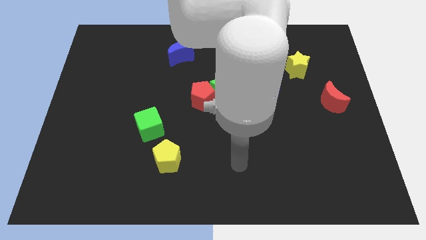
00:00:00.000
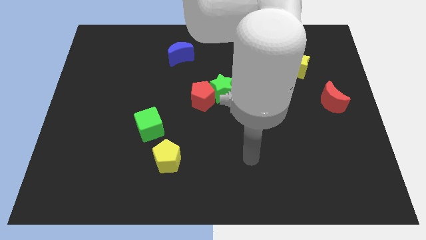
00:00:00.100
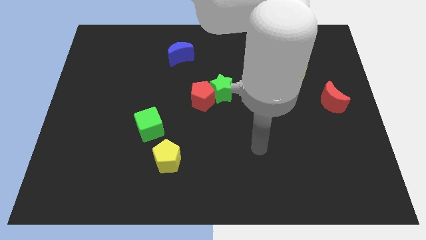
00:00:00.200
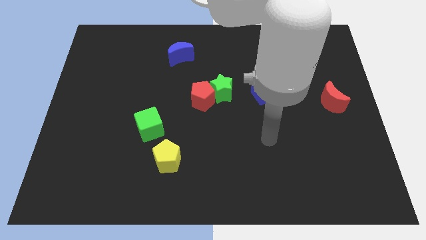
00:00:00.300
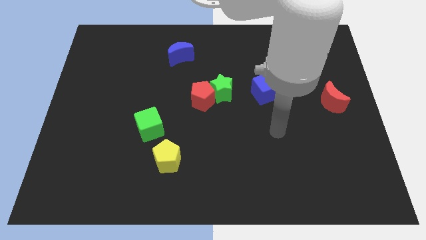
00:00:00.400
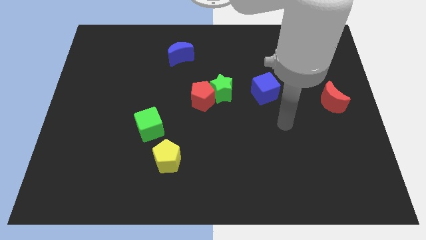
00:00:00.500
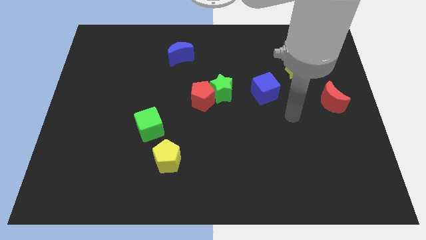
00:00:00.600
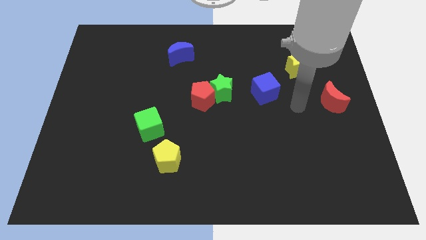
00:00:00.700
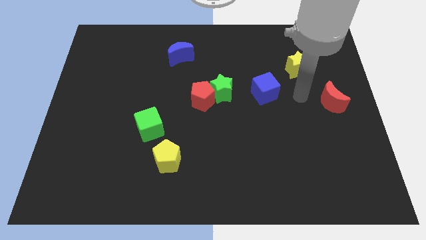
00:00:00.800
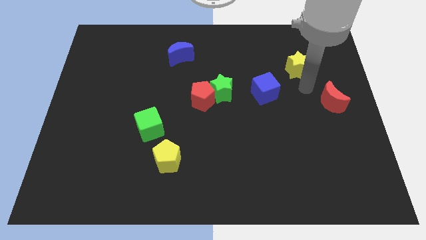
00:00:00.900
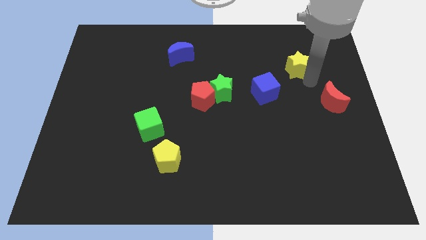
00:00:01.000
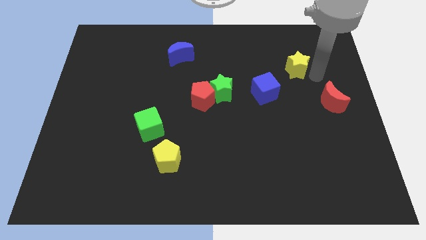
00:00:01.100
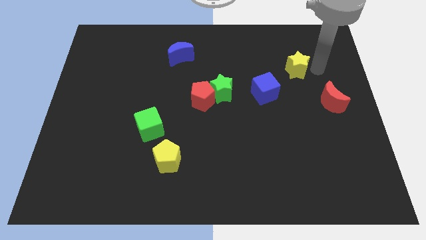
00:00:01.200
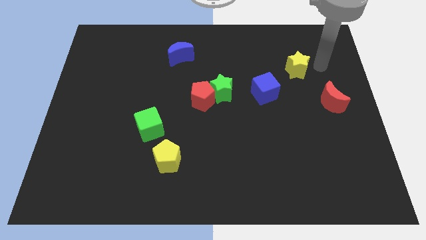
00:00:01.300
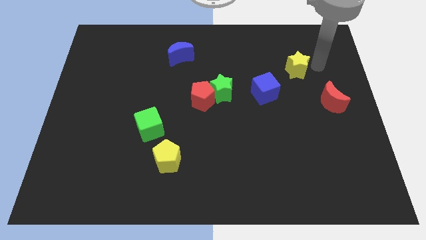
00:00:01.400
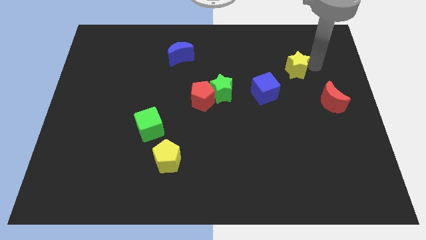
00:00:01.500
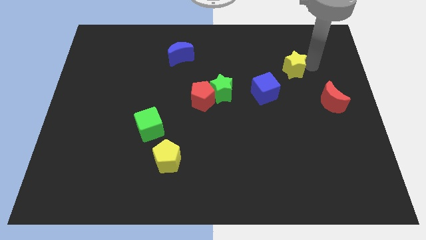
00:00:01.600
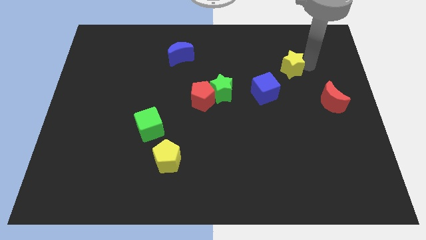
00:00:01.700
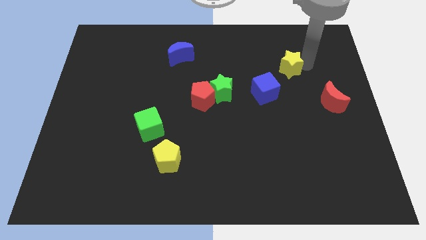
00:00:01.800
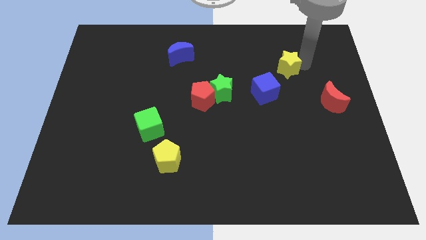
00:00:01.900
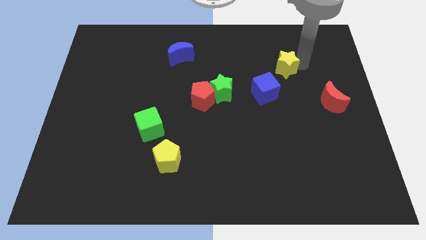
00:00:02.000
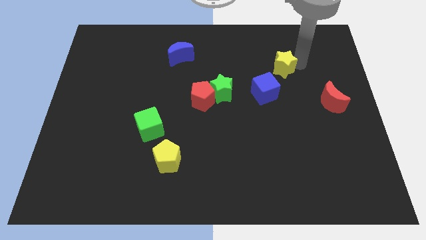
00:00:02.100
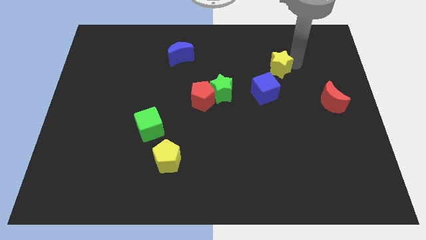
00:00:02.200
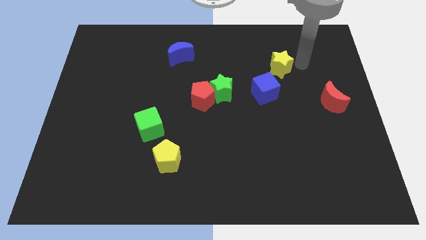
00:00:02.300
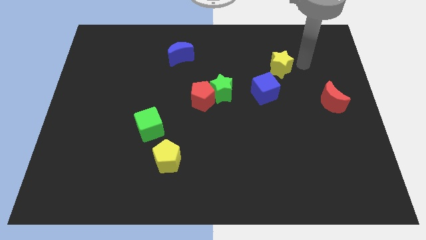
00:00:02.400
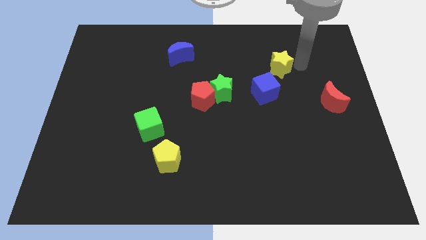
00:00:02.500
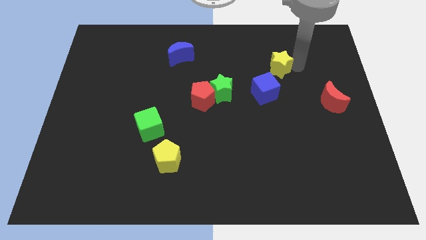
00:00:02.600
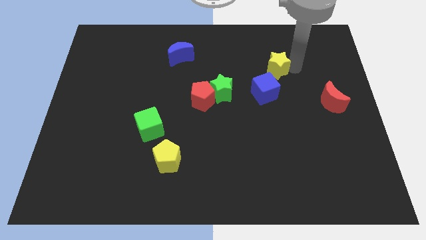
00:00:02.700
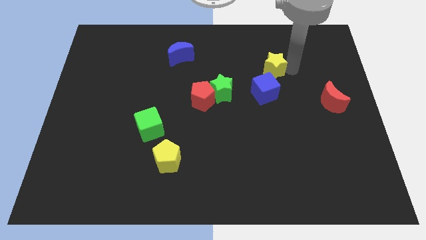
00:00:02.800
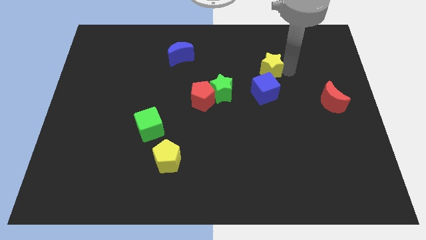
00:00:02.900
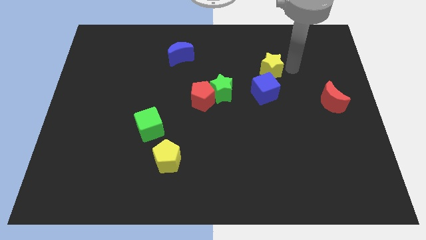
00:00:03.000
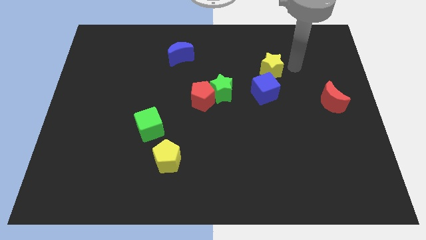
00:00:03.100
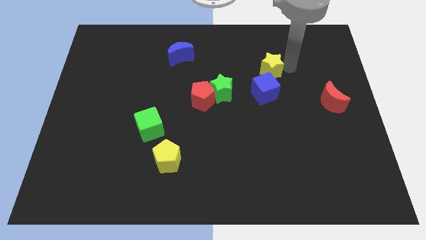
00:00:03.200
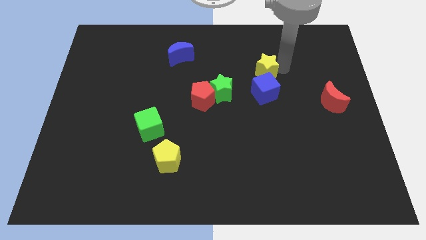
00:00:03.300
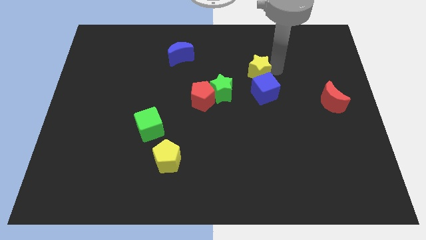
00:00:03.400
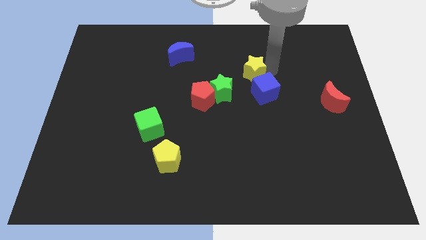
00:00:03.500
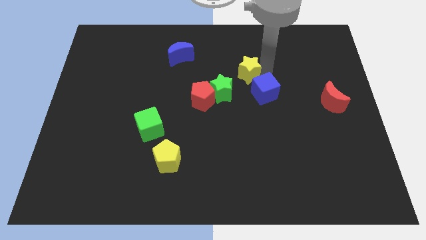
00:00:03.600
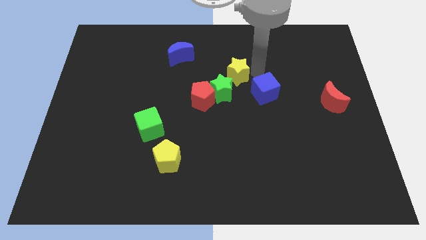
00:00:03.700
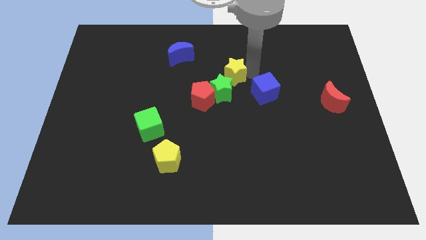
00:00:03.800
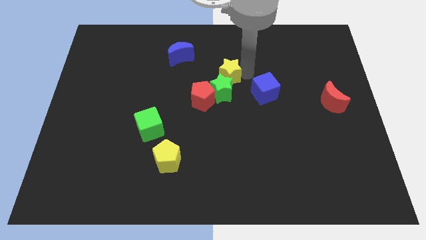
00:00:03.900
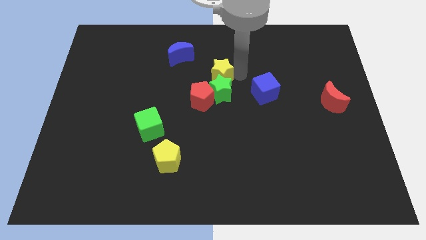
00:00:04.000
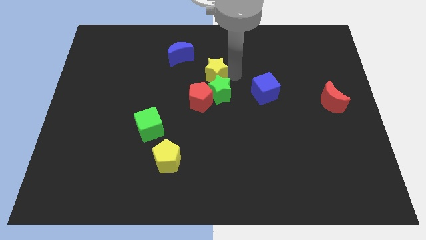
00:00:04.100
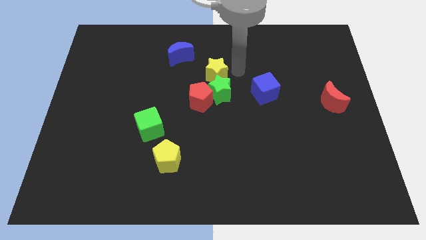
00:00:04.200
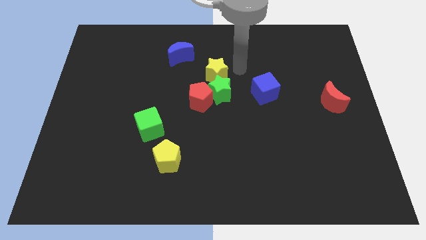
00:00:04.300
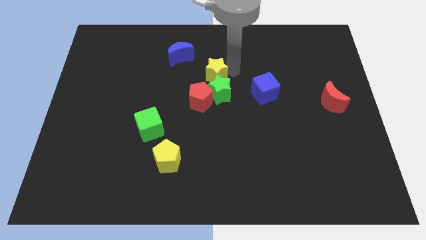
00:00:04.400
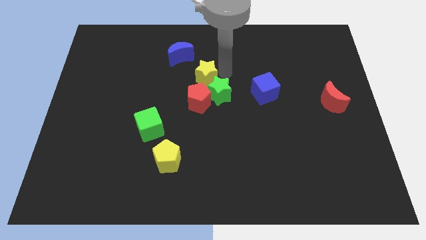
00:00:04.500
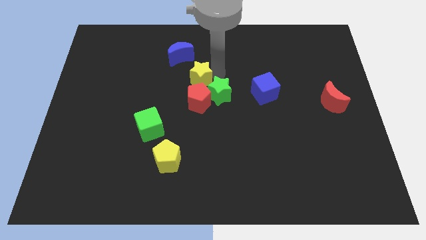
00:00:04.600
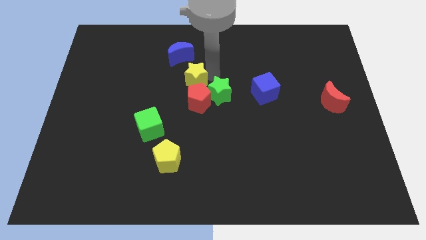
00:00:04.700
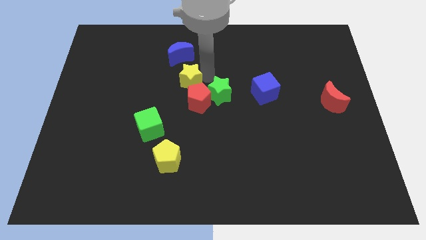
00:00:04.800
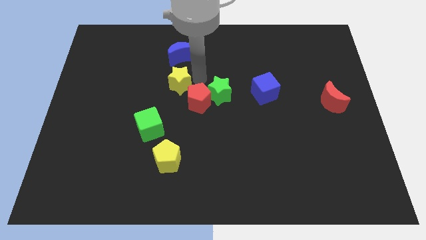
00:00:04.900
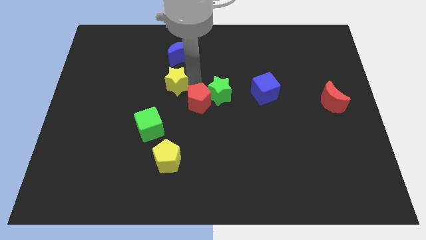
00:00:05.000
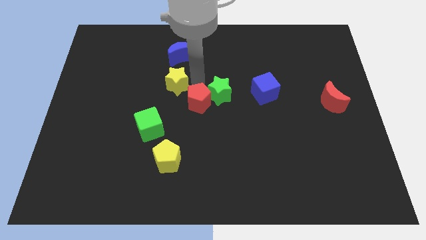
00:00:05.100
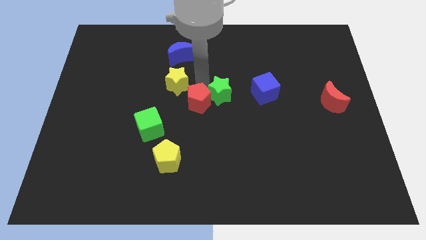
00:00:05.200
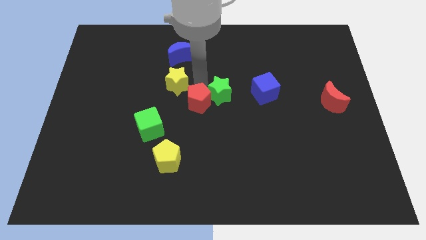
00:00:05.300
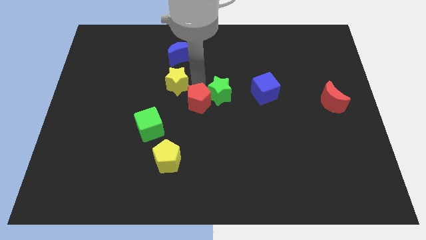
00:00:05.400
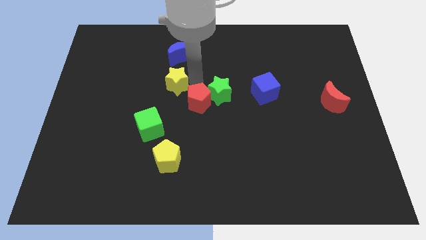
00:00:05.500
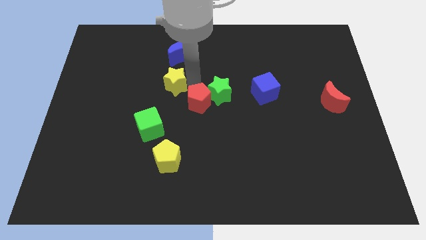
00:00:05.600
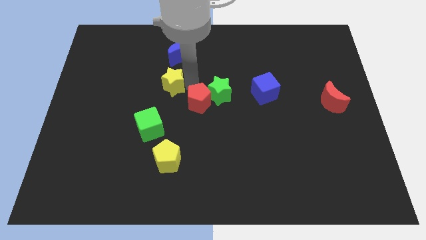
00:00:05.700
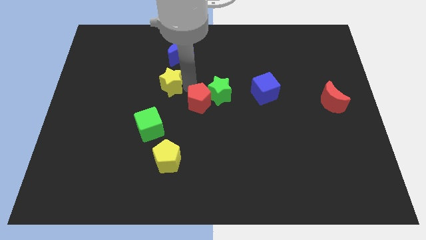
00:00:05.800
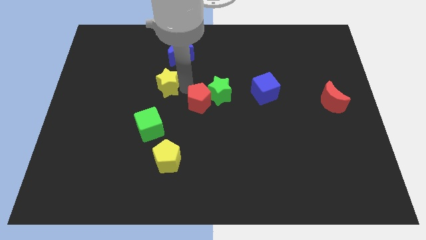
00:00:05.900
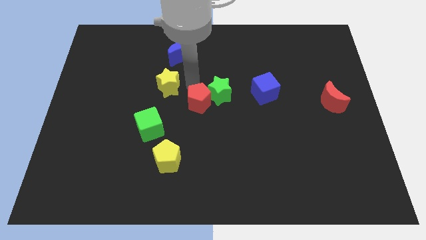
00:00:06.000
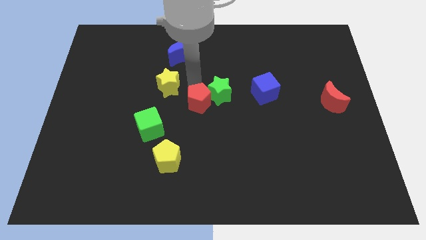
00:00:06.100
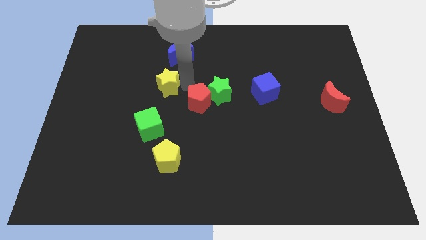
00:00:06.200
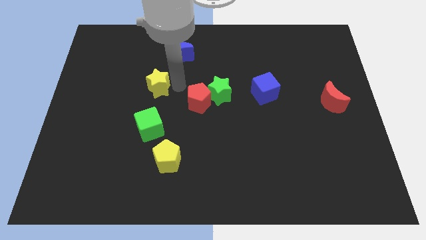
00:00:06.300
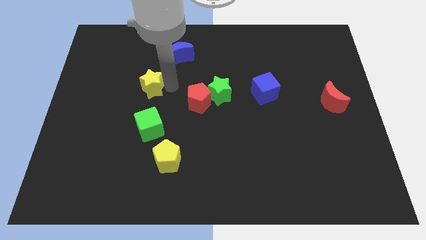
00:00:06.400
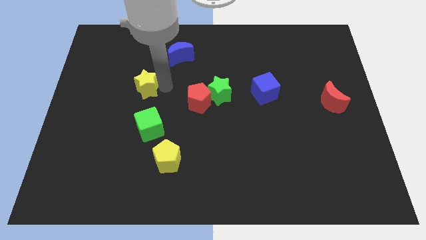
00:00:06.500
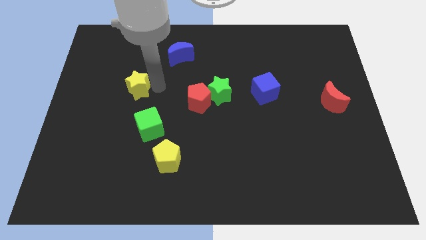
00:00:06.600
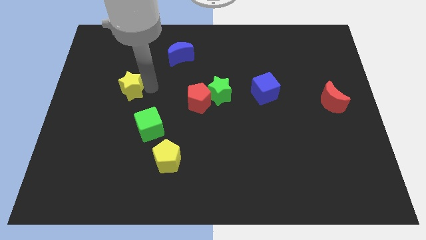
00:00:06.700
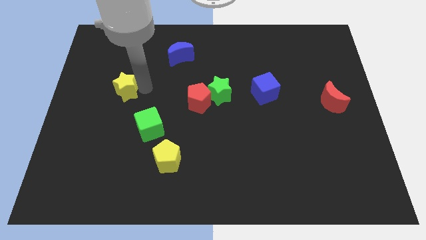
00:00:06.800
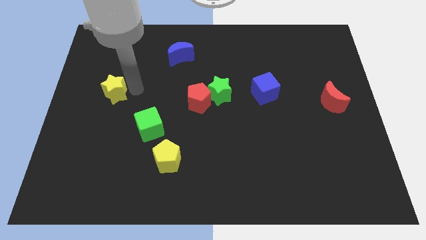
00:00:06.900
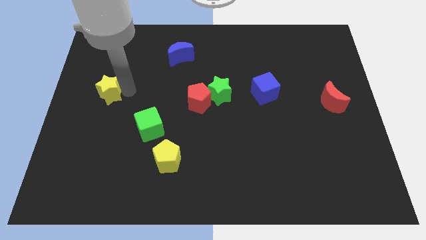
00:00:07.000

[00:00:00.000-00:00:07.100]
put the yellow star to the left side of the board
